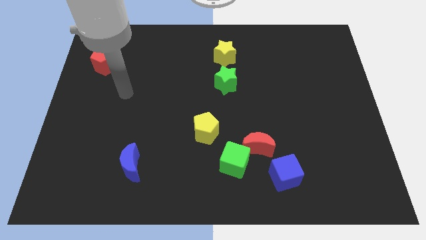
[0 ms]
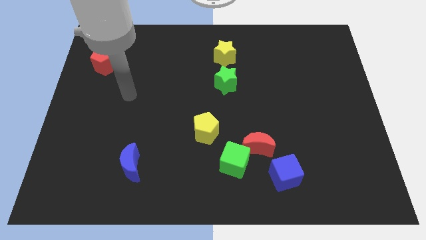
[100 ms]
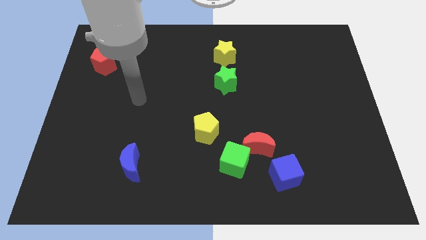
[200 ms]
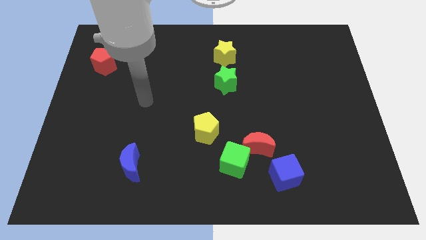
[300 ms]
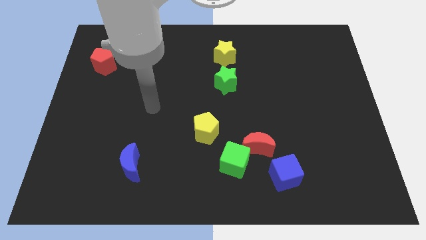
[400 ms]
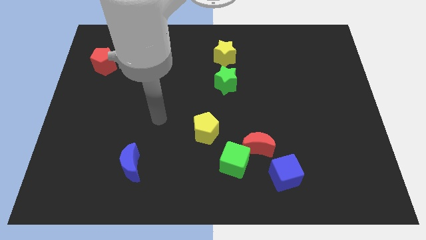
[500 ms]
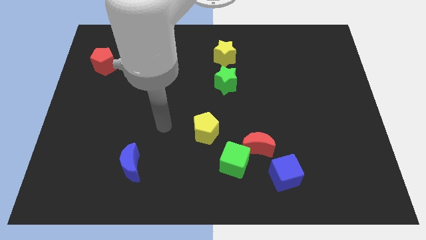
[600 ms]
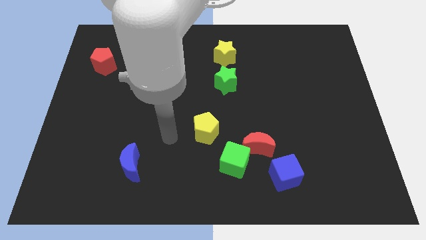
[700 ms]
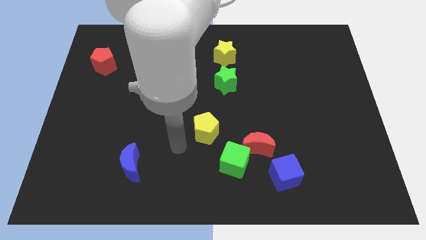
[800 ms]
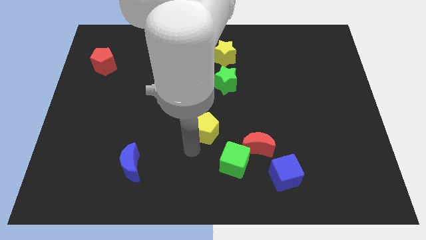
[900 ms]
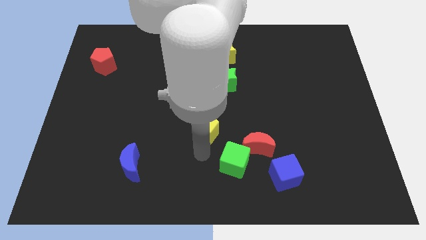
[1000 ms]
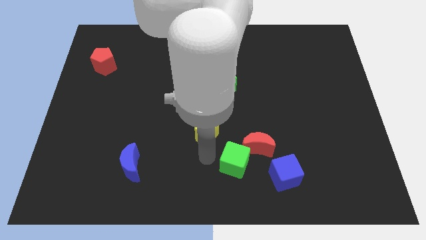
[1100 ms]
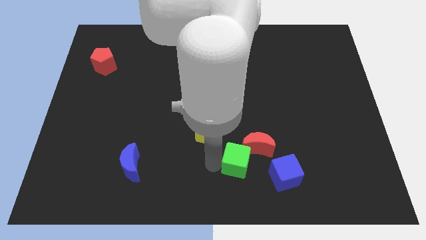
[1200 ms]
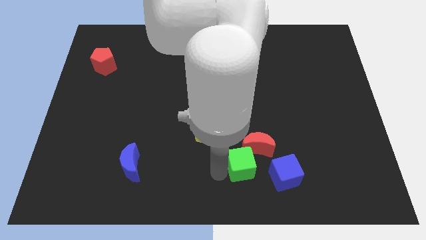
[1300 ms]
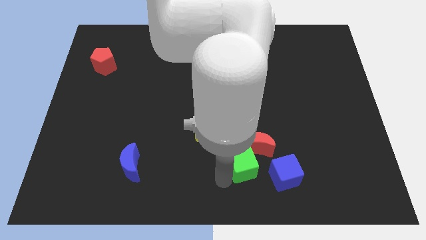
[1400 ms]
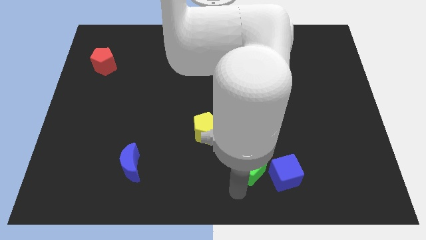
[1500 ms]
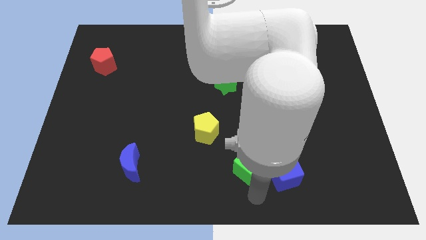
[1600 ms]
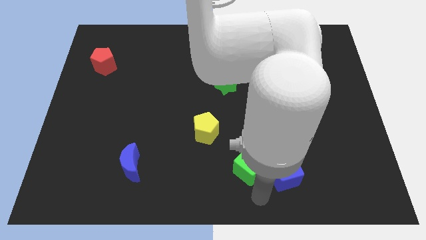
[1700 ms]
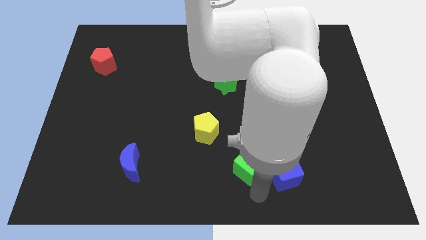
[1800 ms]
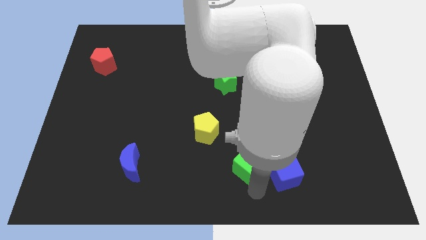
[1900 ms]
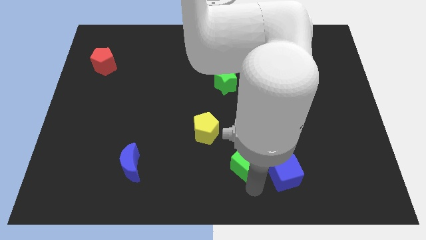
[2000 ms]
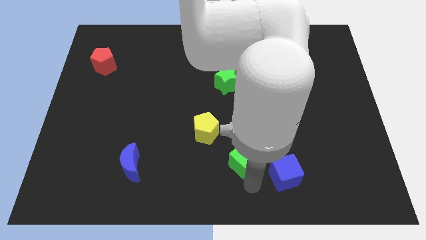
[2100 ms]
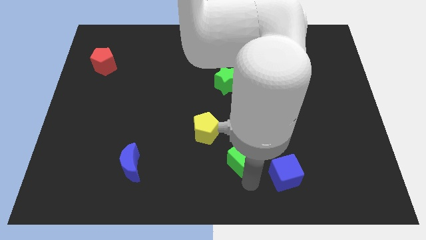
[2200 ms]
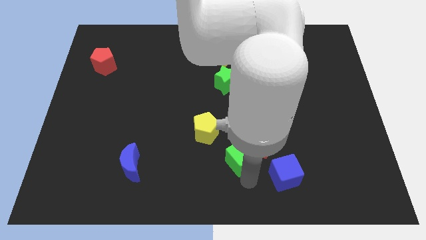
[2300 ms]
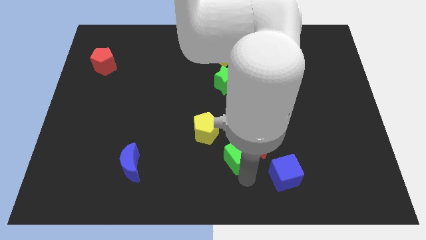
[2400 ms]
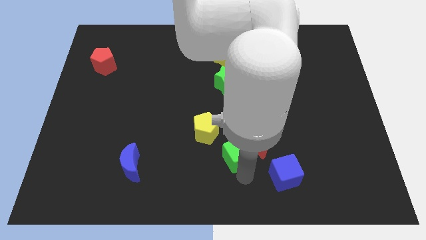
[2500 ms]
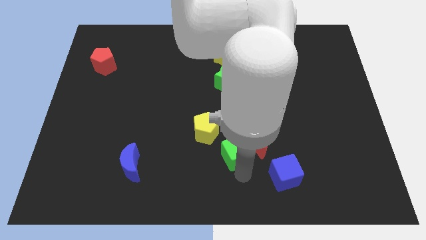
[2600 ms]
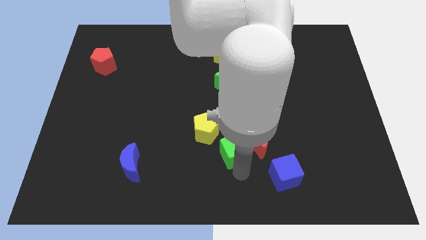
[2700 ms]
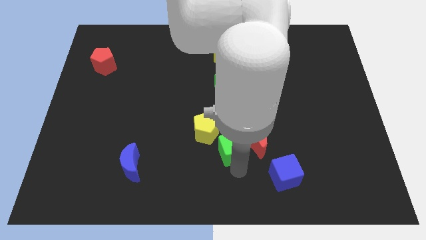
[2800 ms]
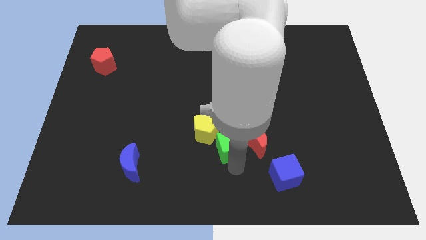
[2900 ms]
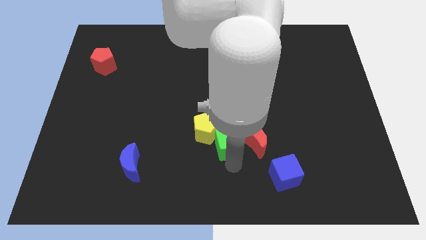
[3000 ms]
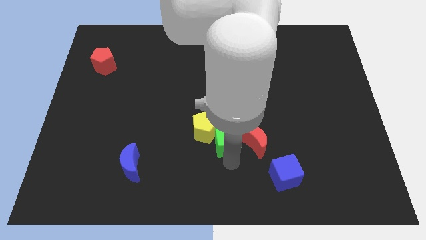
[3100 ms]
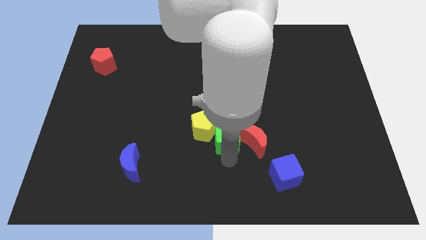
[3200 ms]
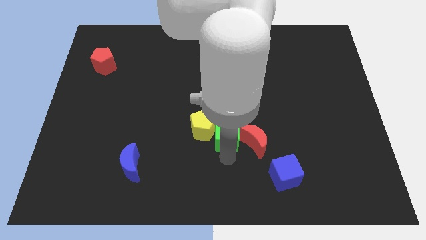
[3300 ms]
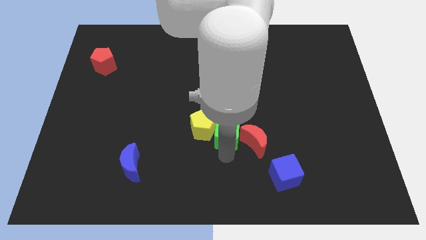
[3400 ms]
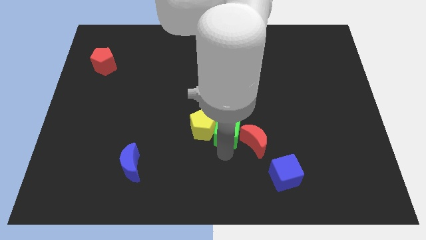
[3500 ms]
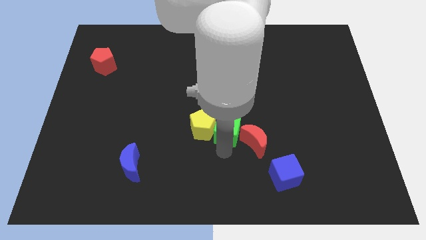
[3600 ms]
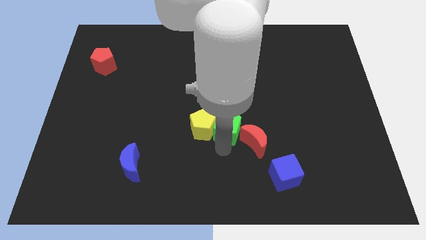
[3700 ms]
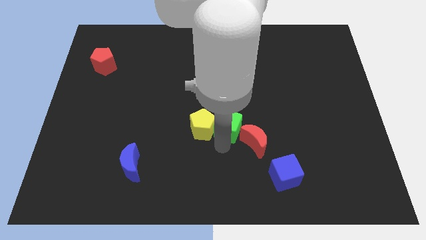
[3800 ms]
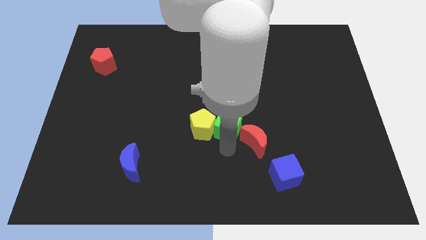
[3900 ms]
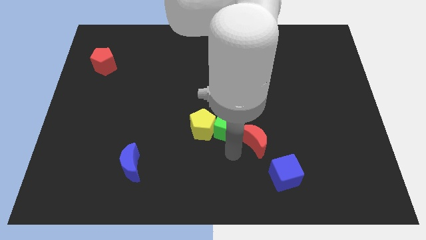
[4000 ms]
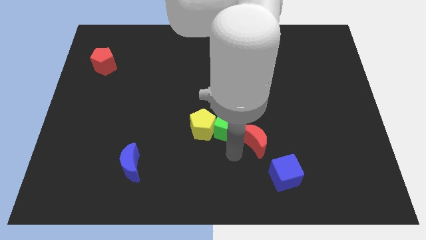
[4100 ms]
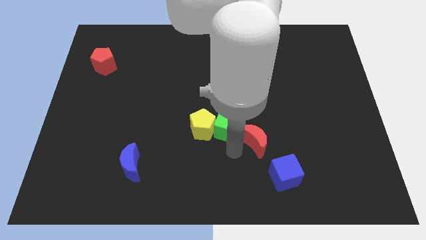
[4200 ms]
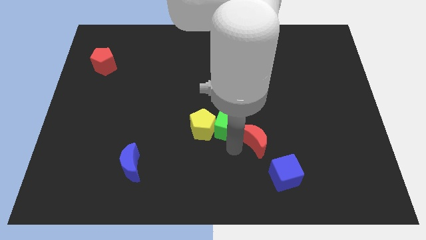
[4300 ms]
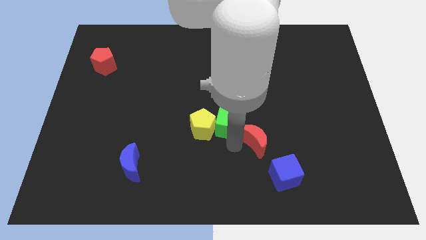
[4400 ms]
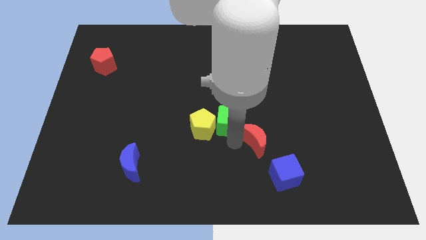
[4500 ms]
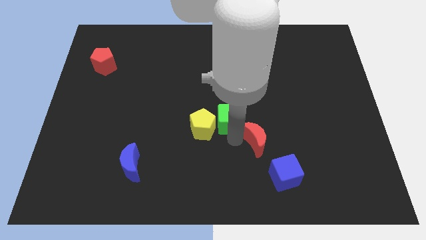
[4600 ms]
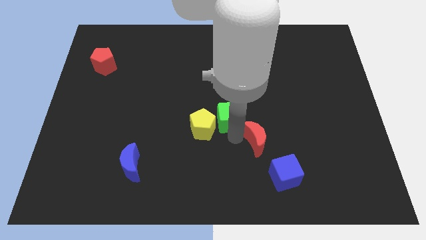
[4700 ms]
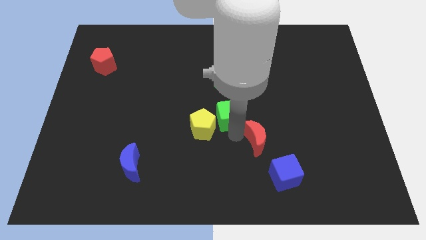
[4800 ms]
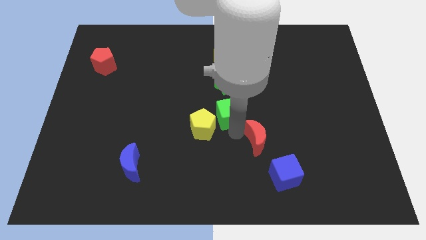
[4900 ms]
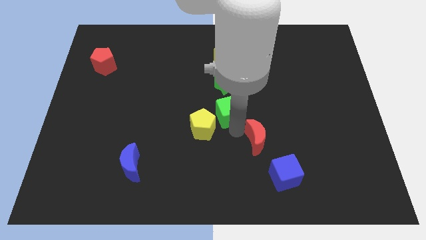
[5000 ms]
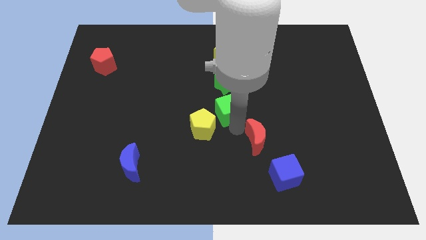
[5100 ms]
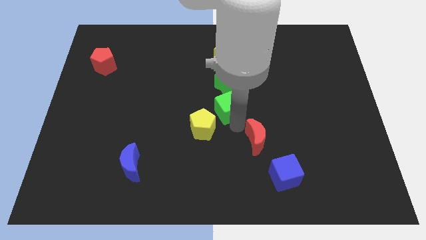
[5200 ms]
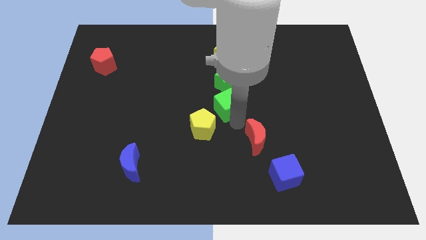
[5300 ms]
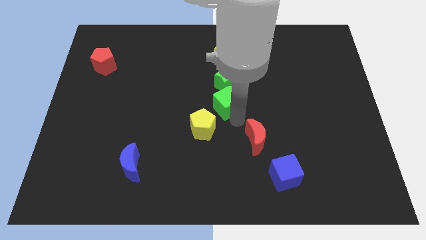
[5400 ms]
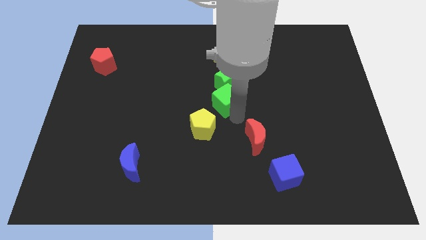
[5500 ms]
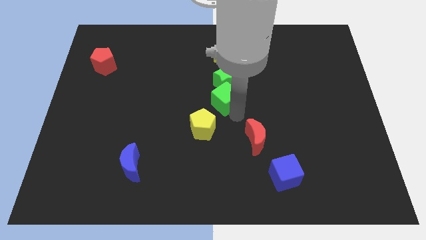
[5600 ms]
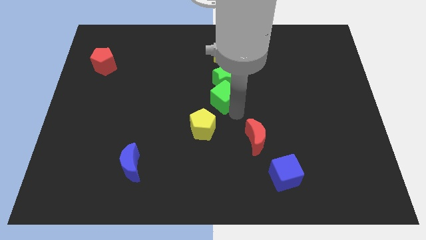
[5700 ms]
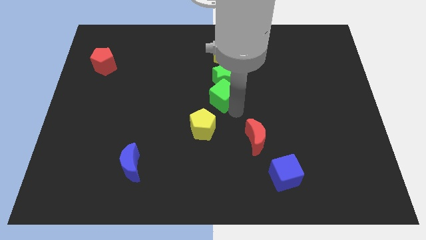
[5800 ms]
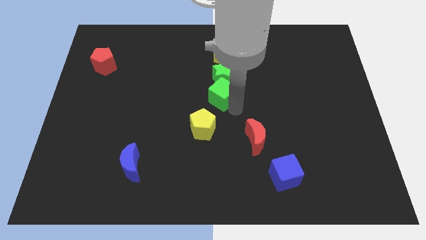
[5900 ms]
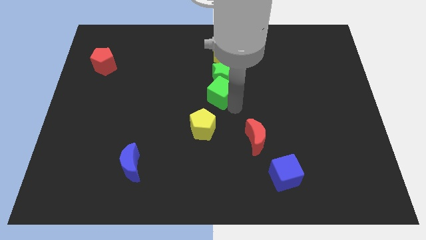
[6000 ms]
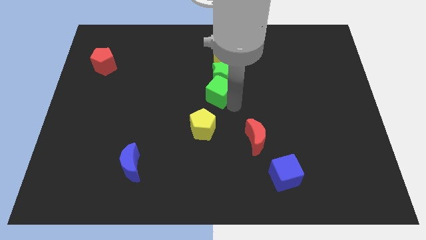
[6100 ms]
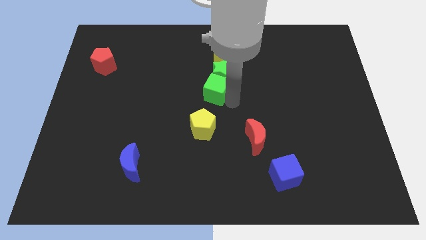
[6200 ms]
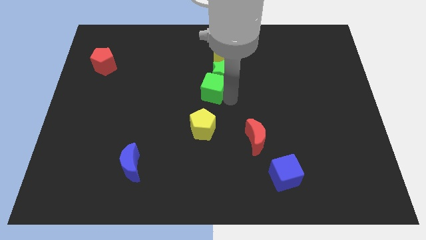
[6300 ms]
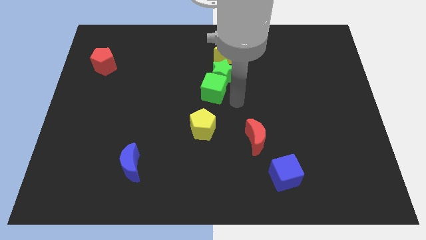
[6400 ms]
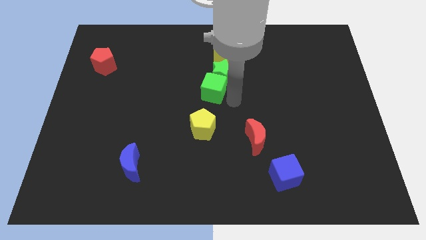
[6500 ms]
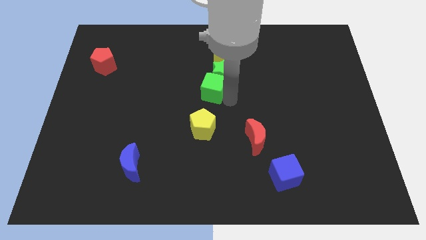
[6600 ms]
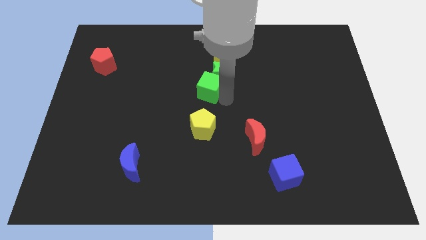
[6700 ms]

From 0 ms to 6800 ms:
push the green cube to the left side of the green star
